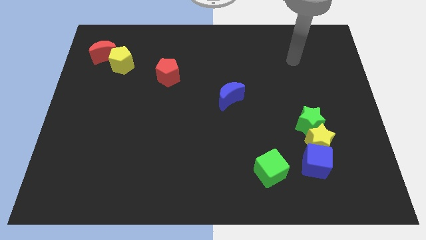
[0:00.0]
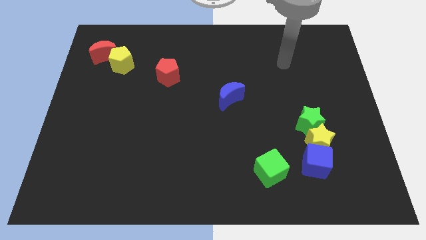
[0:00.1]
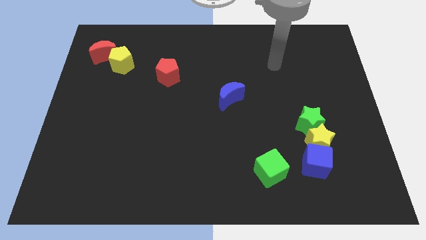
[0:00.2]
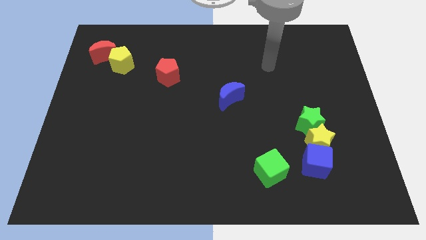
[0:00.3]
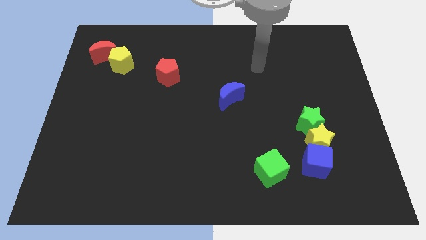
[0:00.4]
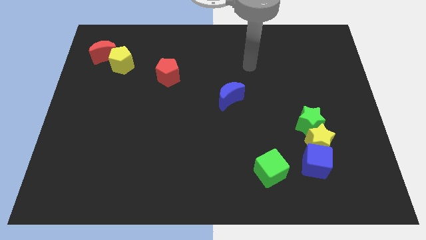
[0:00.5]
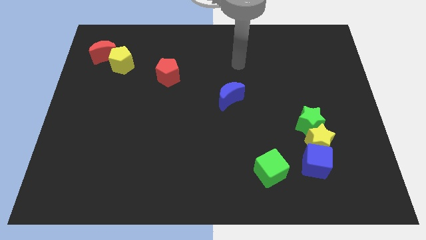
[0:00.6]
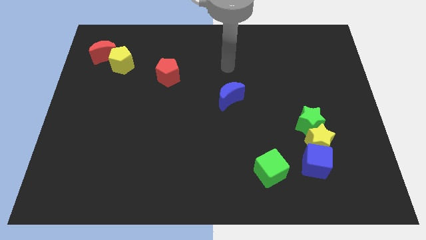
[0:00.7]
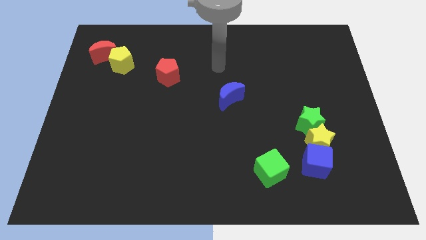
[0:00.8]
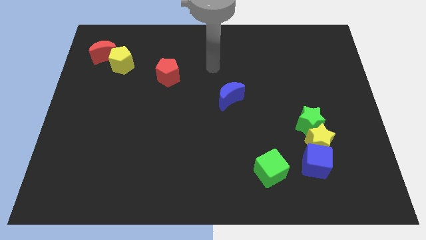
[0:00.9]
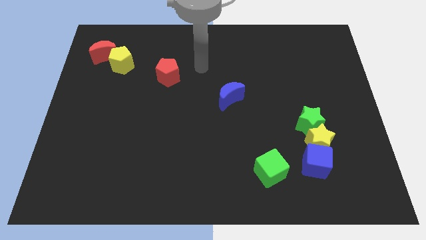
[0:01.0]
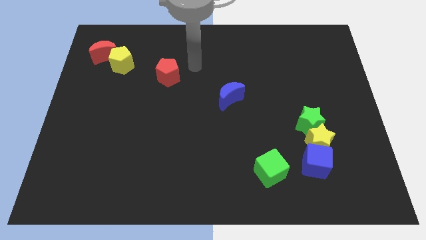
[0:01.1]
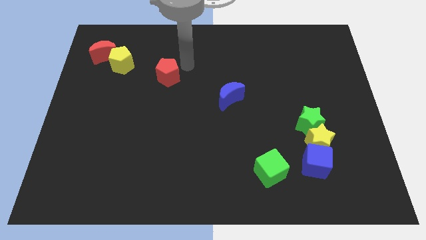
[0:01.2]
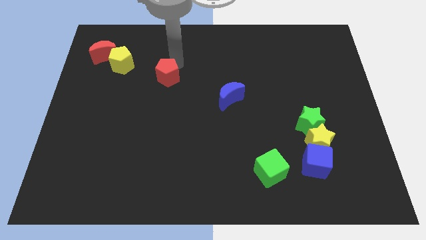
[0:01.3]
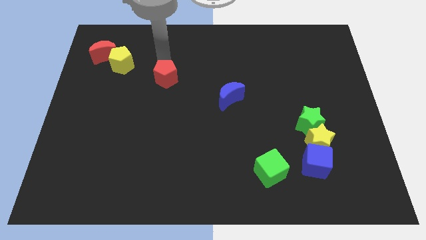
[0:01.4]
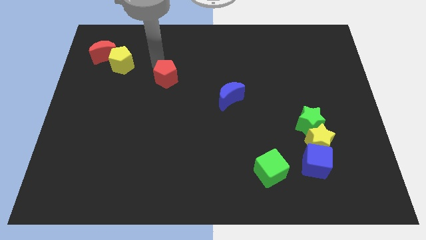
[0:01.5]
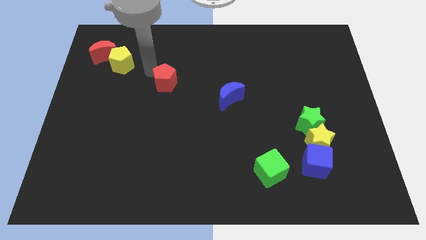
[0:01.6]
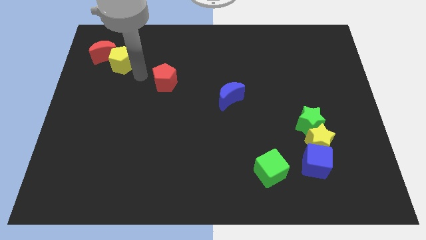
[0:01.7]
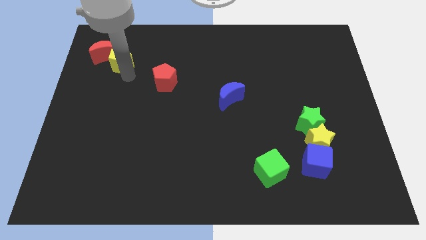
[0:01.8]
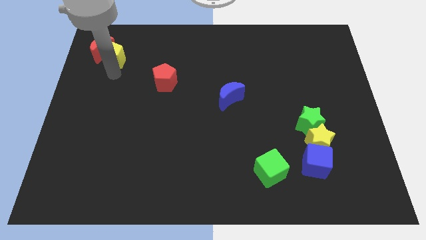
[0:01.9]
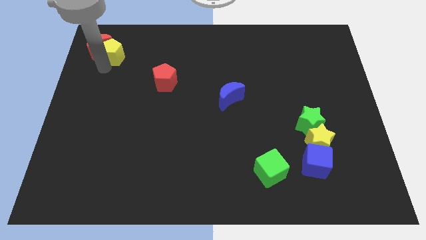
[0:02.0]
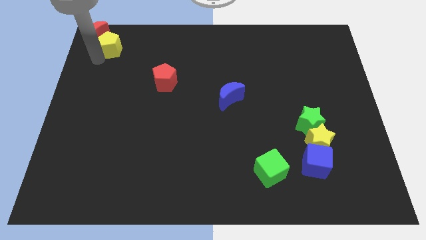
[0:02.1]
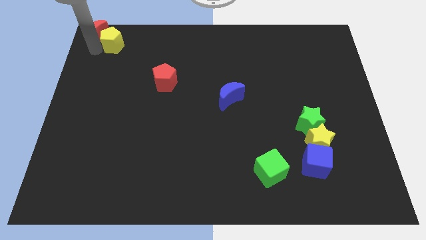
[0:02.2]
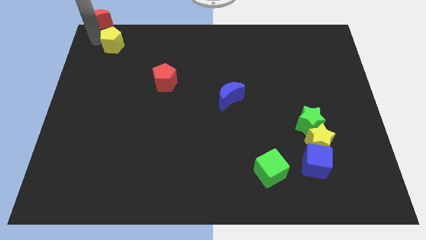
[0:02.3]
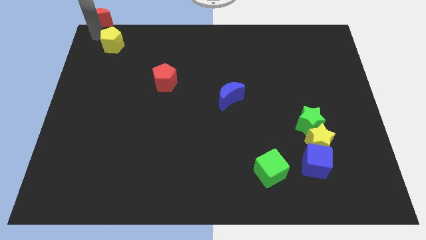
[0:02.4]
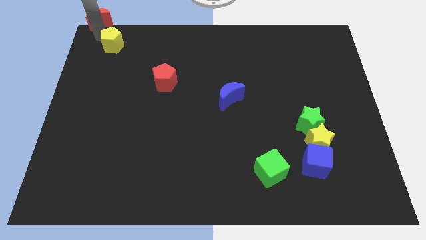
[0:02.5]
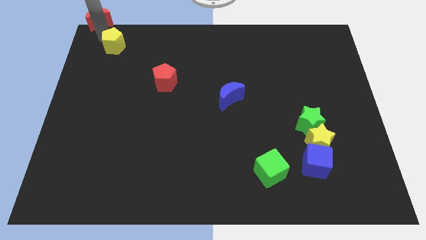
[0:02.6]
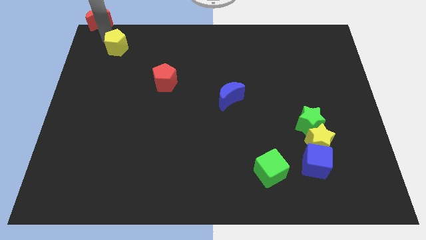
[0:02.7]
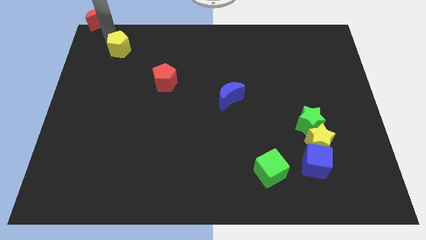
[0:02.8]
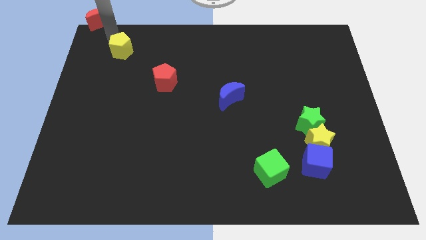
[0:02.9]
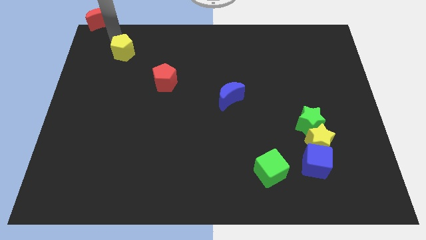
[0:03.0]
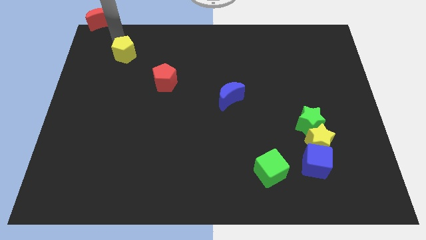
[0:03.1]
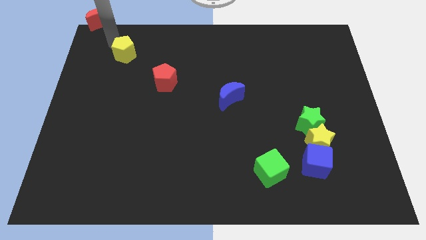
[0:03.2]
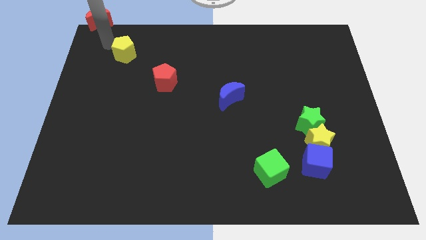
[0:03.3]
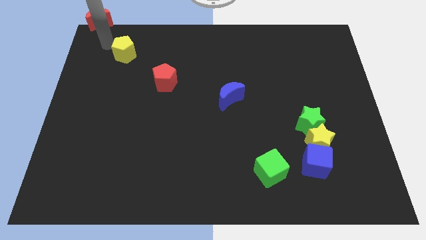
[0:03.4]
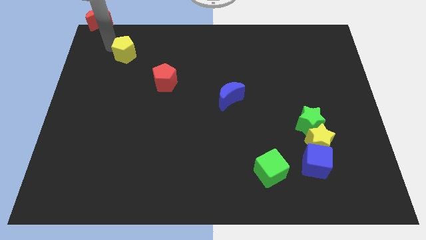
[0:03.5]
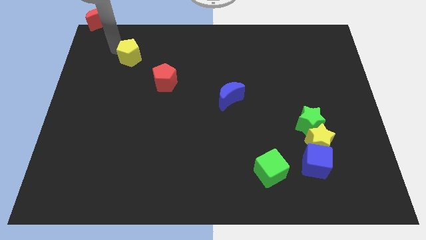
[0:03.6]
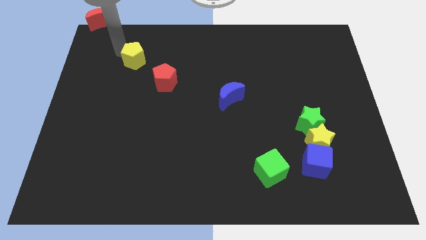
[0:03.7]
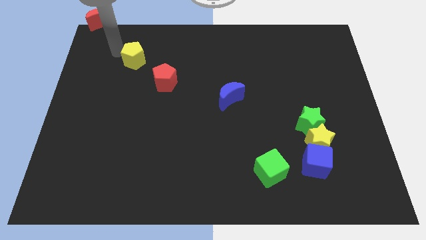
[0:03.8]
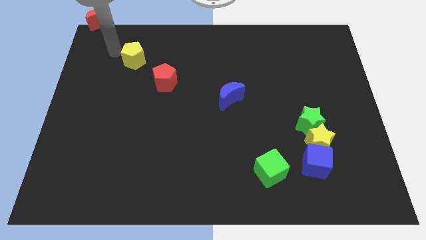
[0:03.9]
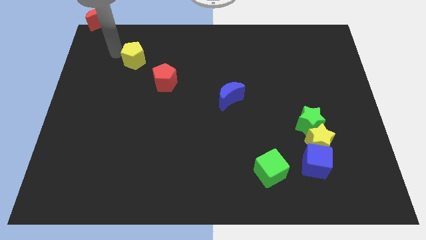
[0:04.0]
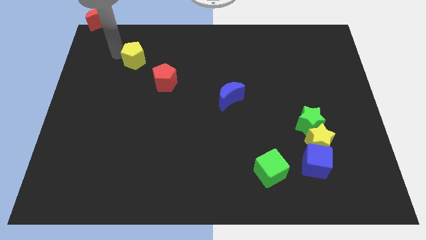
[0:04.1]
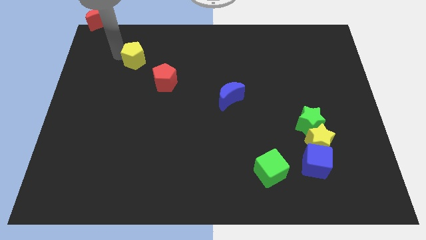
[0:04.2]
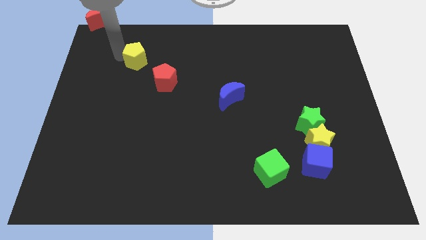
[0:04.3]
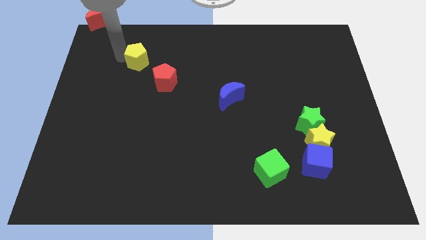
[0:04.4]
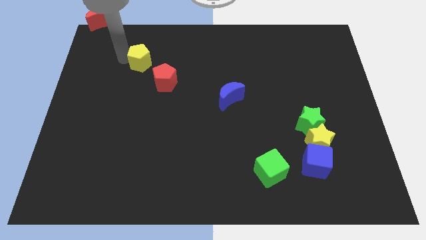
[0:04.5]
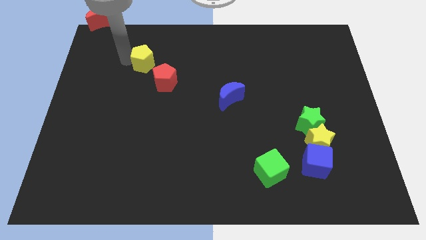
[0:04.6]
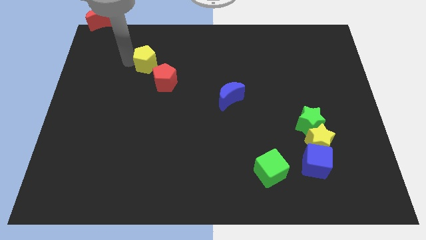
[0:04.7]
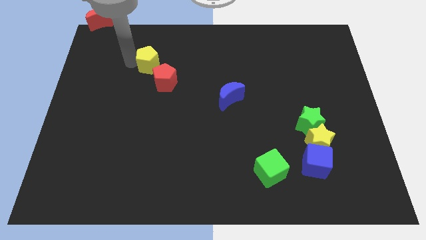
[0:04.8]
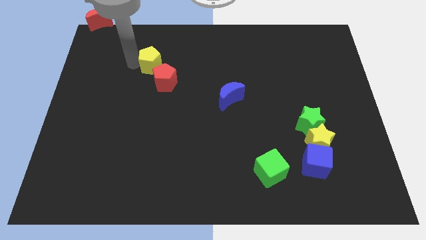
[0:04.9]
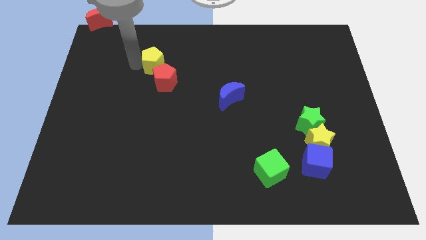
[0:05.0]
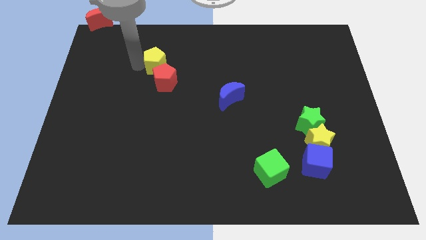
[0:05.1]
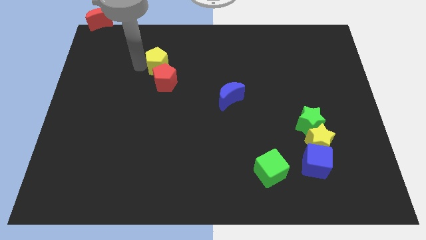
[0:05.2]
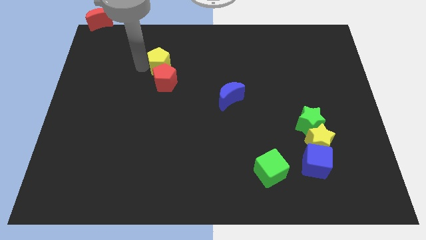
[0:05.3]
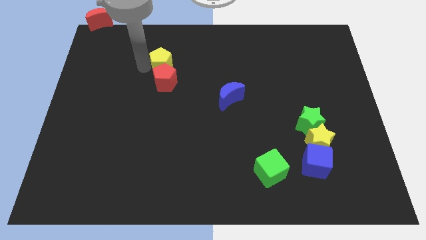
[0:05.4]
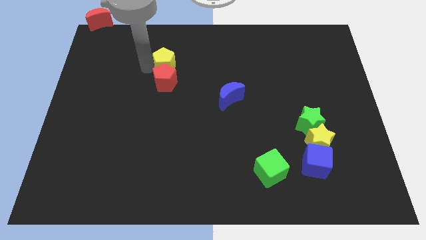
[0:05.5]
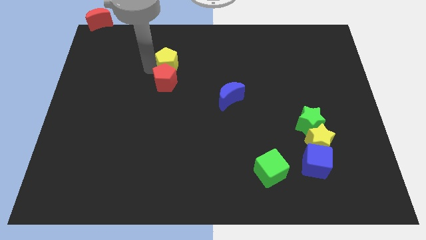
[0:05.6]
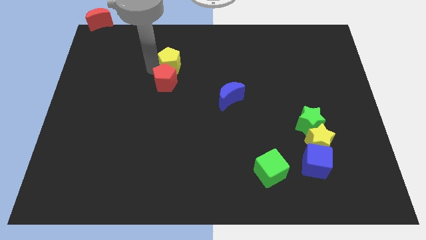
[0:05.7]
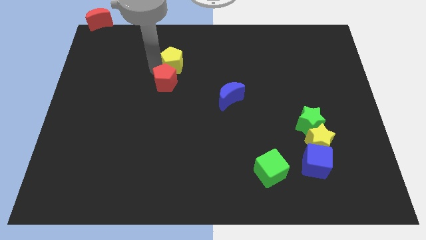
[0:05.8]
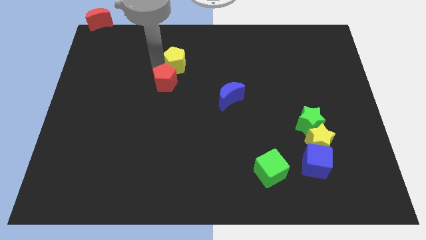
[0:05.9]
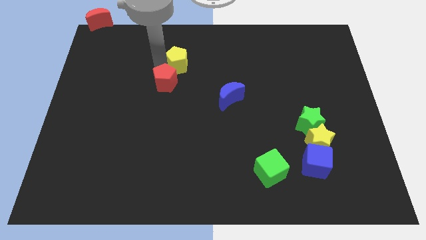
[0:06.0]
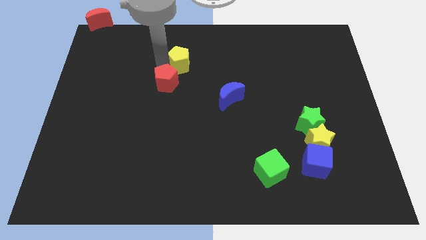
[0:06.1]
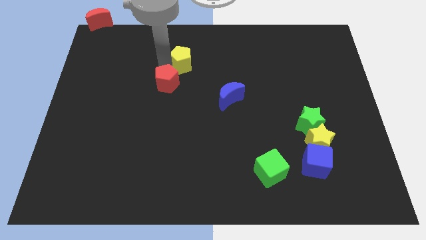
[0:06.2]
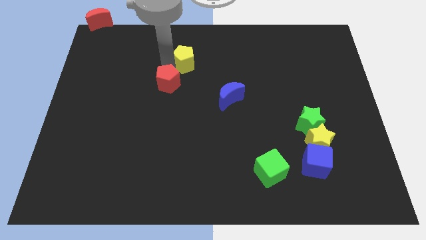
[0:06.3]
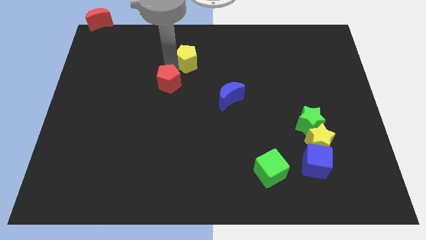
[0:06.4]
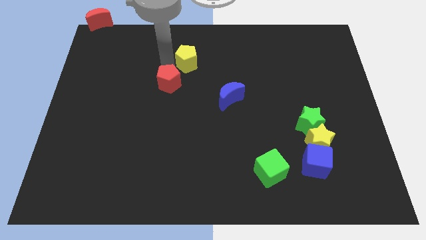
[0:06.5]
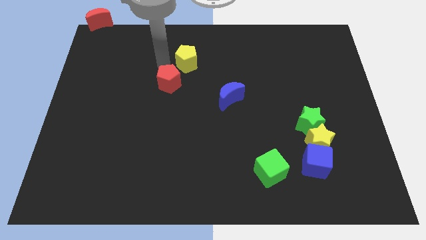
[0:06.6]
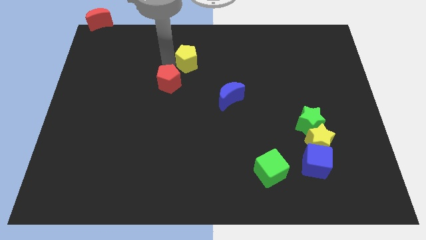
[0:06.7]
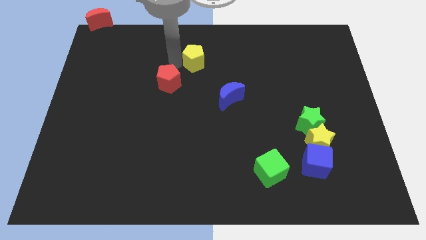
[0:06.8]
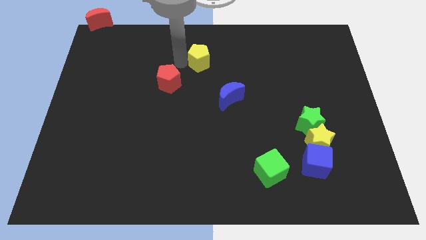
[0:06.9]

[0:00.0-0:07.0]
move the yellow pentagon to the right

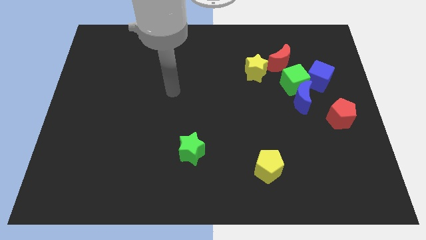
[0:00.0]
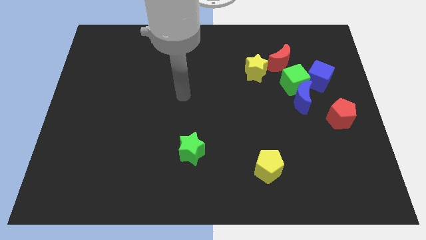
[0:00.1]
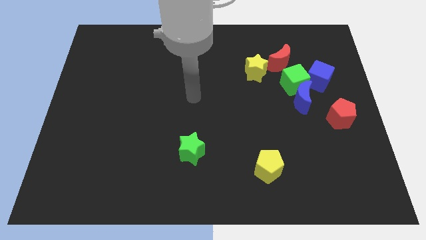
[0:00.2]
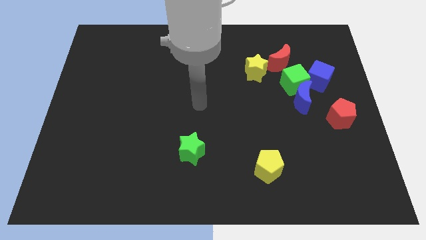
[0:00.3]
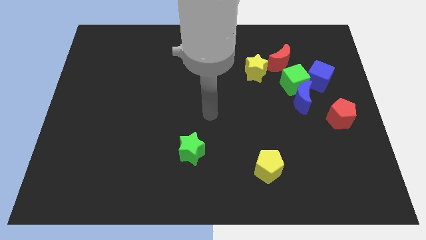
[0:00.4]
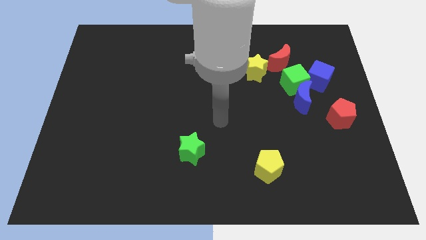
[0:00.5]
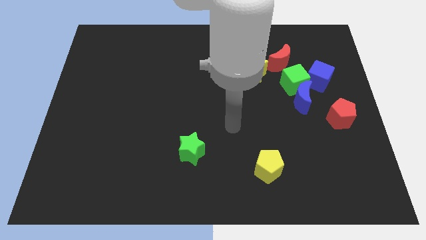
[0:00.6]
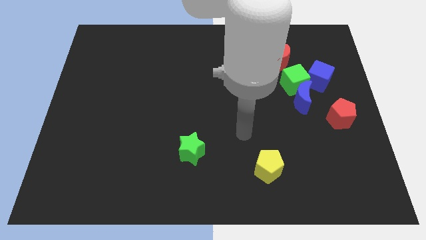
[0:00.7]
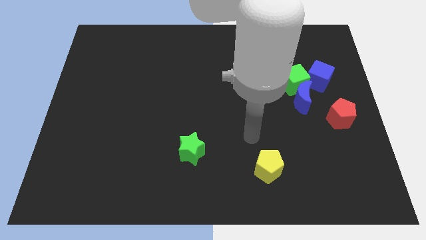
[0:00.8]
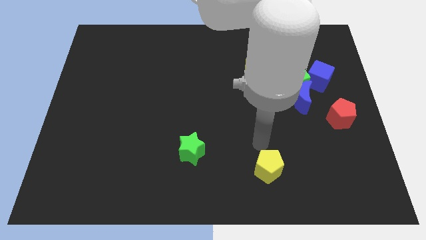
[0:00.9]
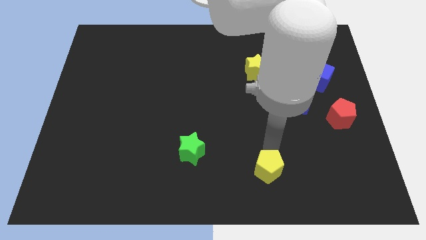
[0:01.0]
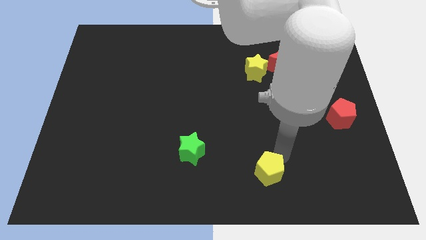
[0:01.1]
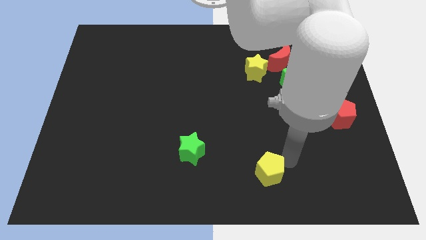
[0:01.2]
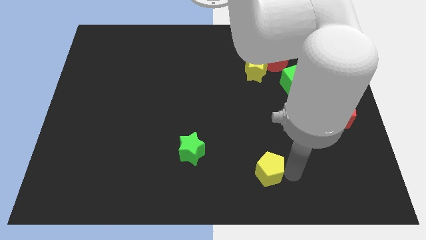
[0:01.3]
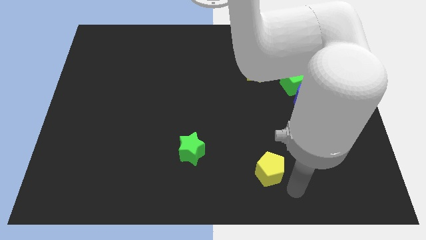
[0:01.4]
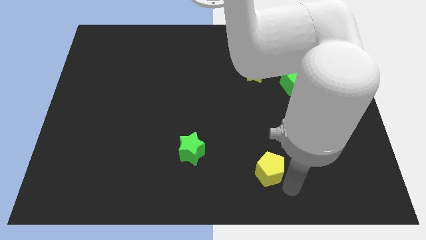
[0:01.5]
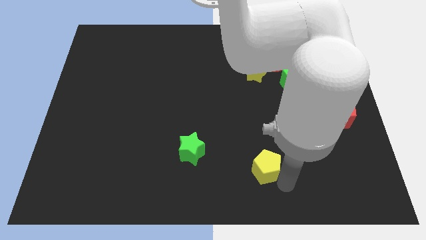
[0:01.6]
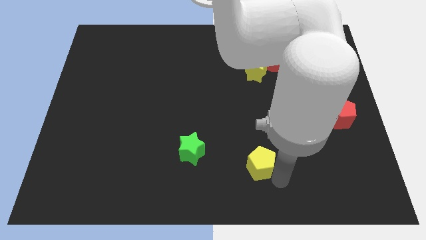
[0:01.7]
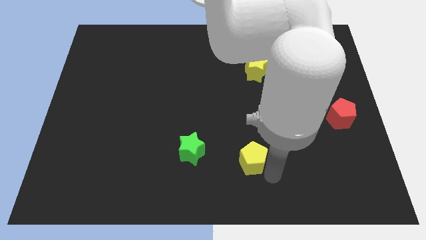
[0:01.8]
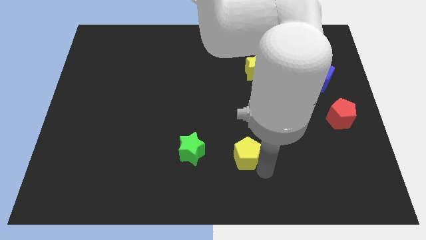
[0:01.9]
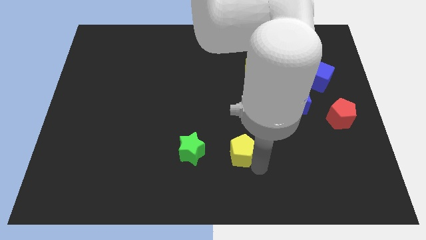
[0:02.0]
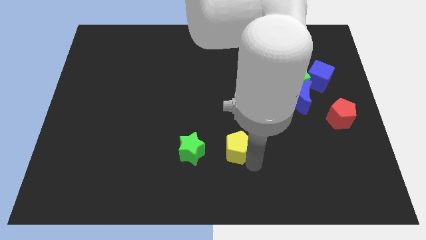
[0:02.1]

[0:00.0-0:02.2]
push the yellow pentagon up and to the left somewhat
